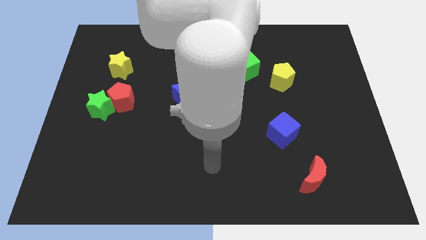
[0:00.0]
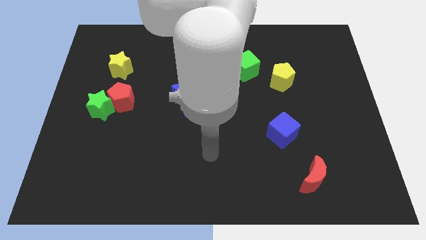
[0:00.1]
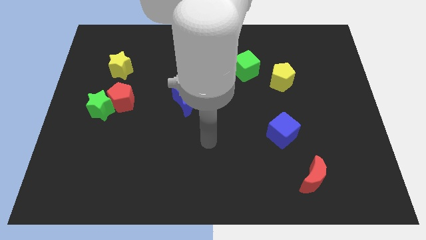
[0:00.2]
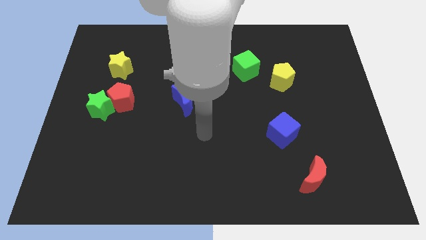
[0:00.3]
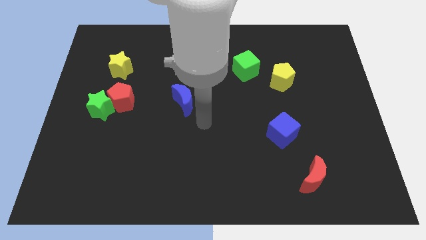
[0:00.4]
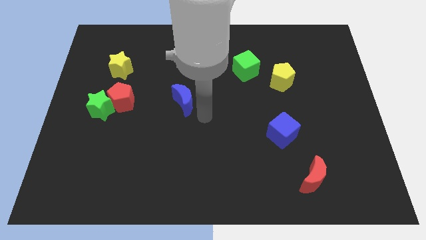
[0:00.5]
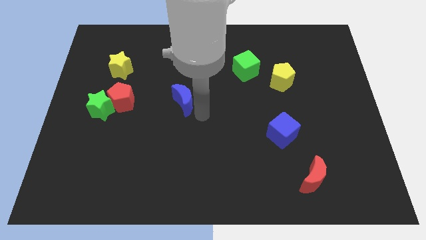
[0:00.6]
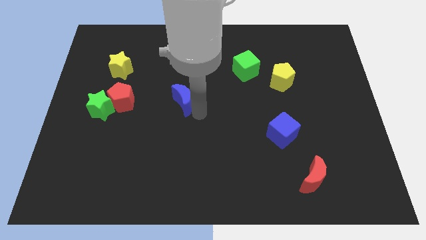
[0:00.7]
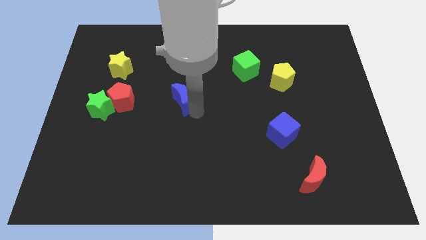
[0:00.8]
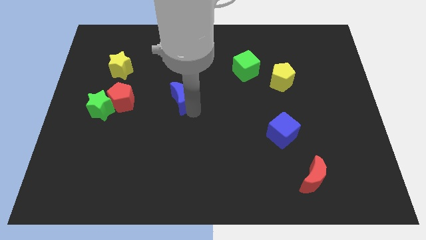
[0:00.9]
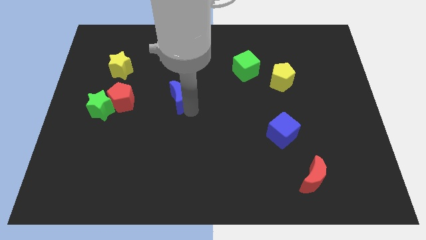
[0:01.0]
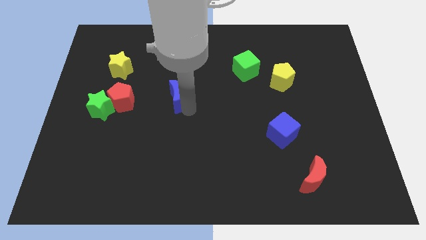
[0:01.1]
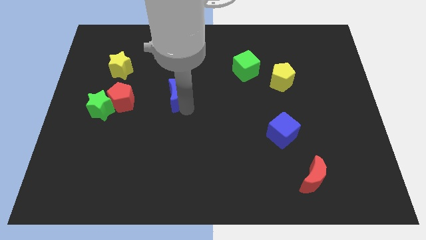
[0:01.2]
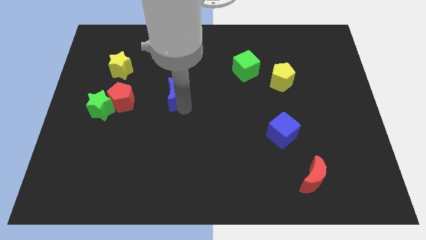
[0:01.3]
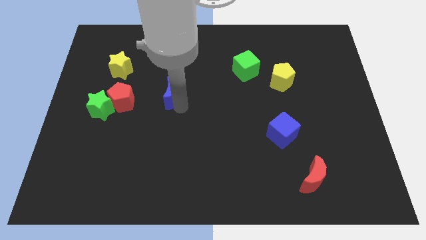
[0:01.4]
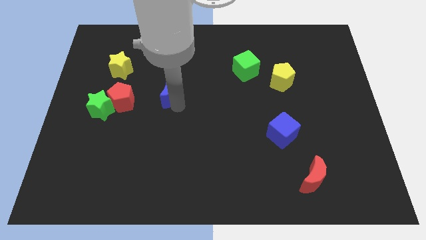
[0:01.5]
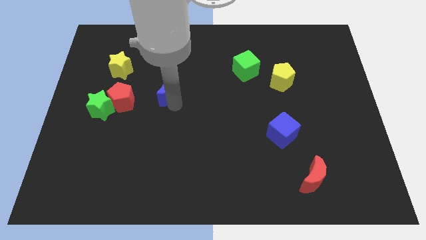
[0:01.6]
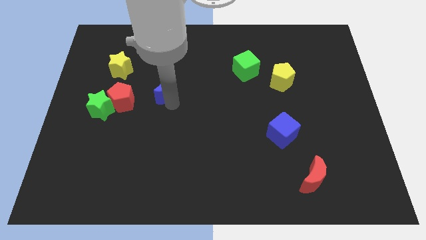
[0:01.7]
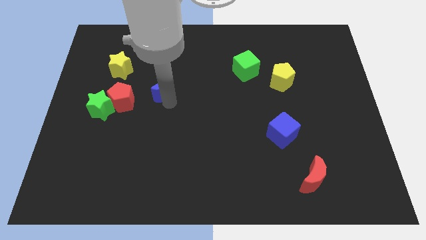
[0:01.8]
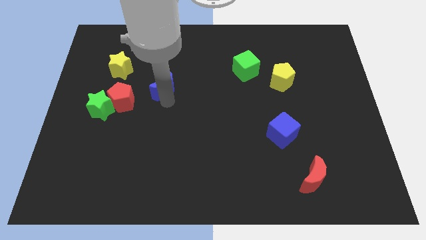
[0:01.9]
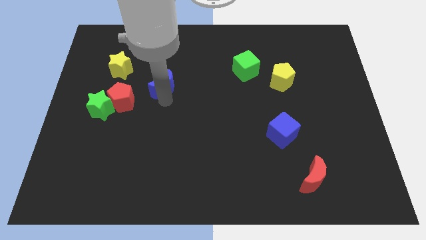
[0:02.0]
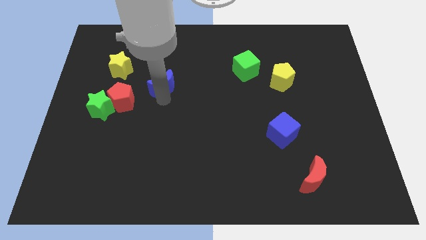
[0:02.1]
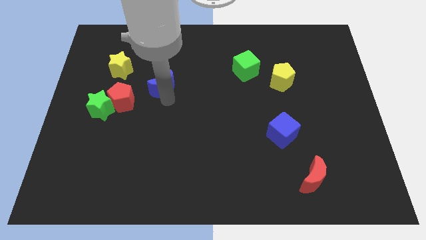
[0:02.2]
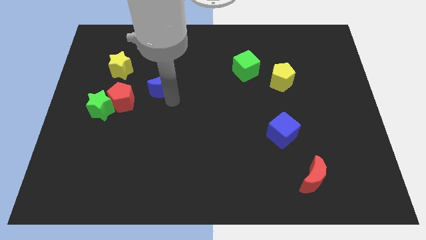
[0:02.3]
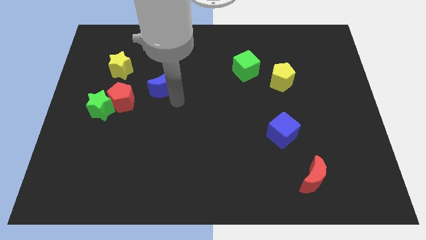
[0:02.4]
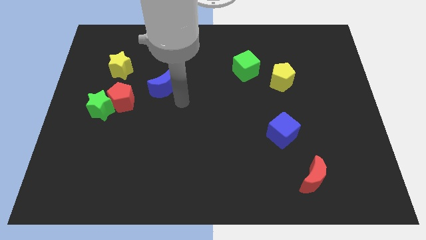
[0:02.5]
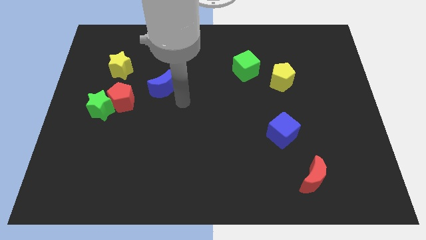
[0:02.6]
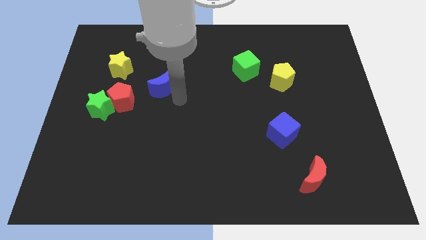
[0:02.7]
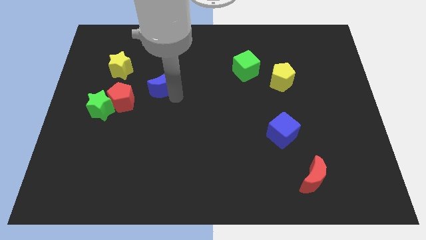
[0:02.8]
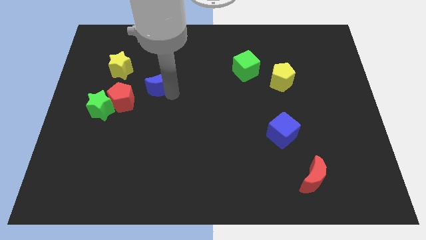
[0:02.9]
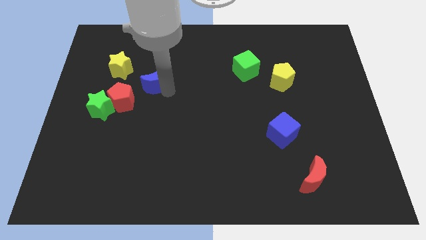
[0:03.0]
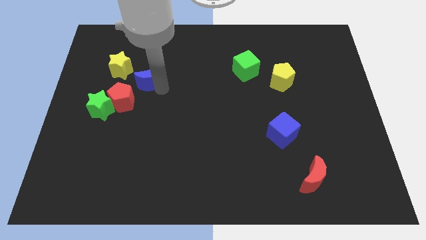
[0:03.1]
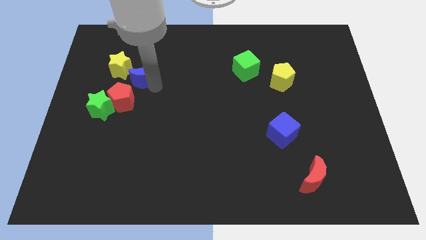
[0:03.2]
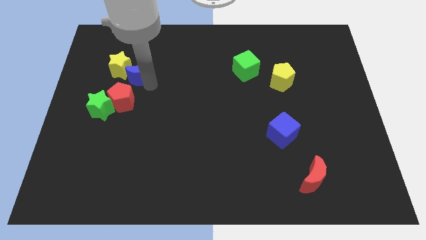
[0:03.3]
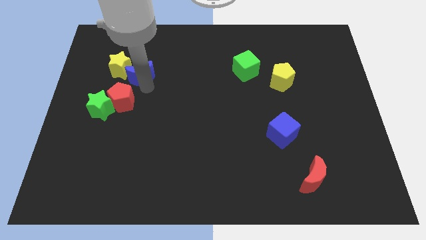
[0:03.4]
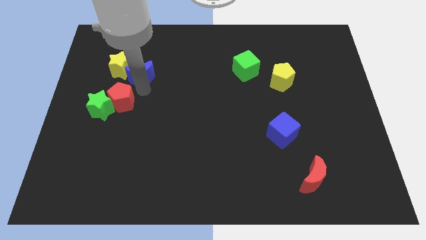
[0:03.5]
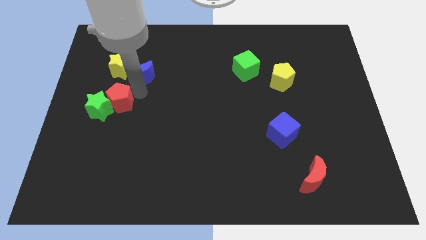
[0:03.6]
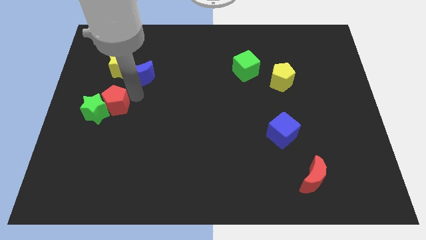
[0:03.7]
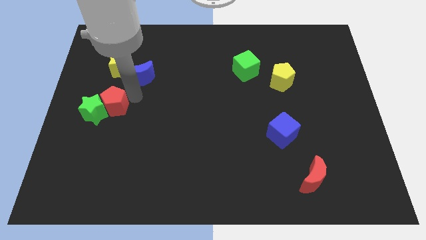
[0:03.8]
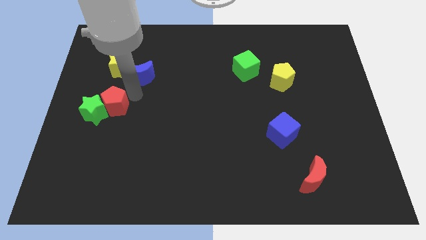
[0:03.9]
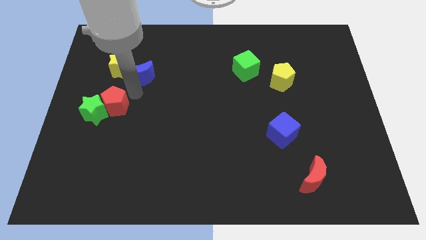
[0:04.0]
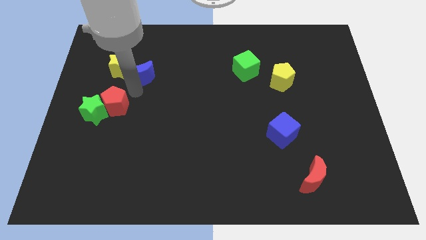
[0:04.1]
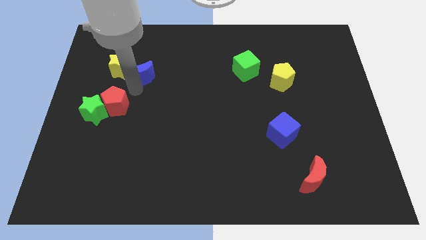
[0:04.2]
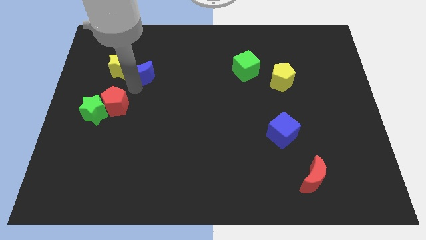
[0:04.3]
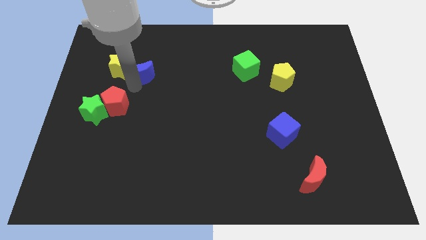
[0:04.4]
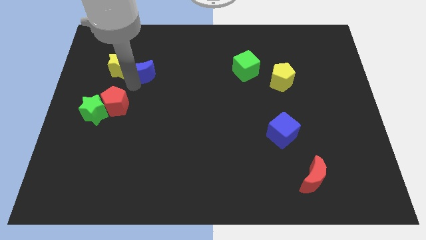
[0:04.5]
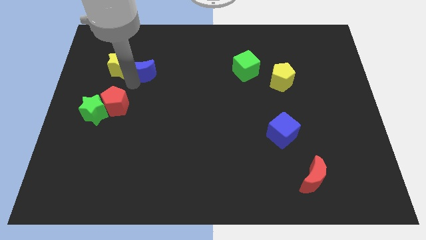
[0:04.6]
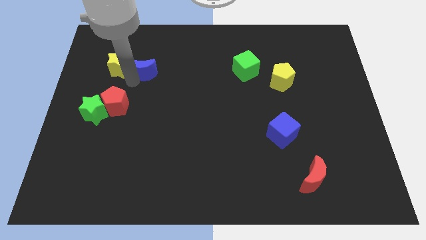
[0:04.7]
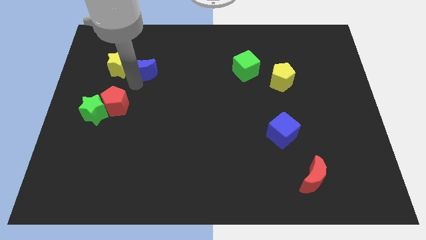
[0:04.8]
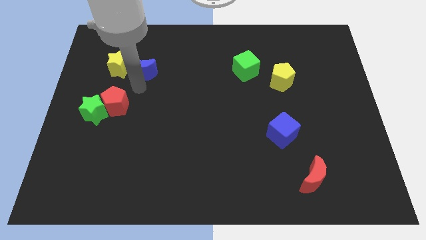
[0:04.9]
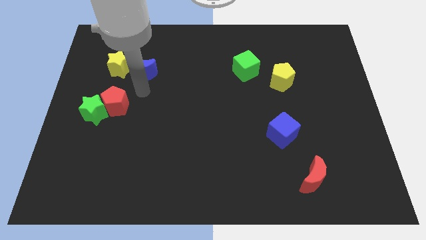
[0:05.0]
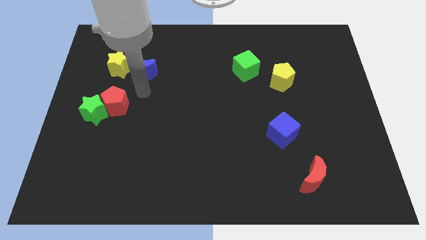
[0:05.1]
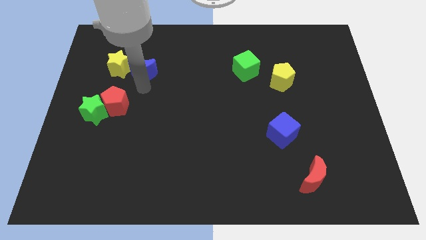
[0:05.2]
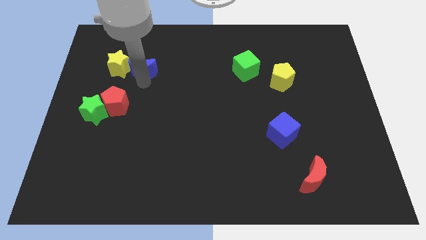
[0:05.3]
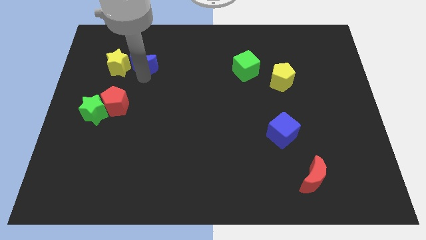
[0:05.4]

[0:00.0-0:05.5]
push the blue moon to the top right of the yellow star
